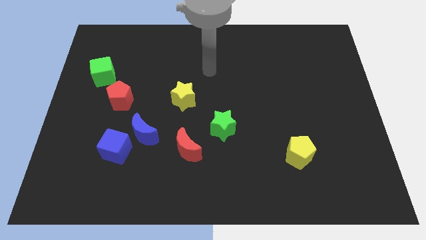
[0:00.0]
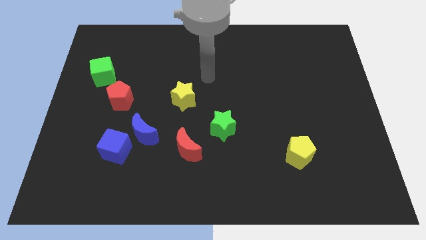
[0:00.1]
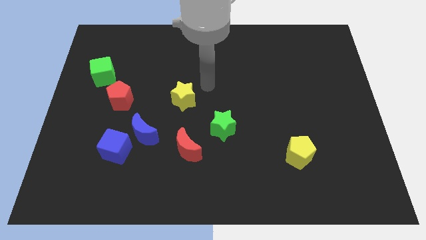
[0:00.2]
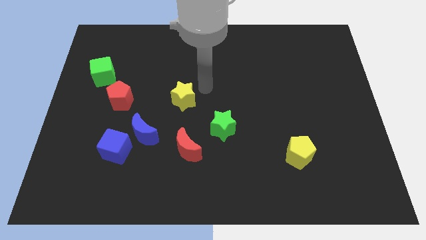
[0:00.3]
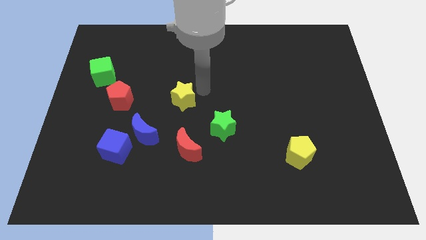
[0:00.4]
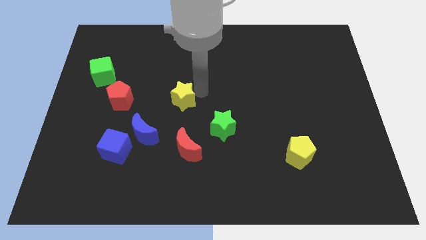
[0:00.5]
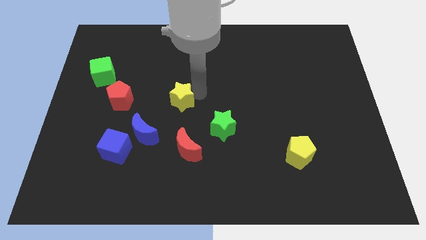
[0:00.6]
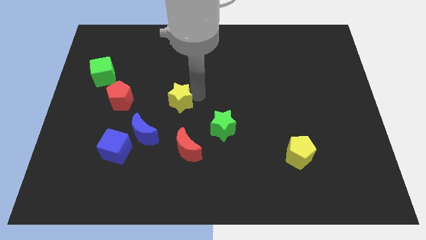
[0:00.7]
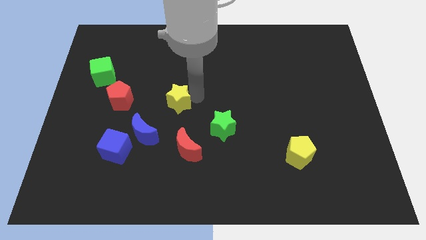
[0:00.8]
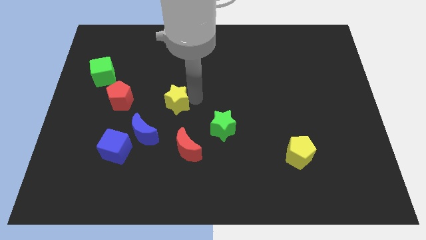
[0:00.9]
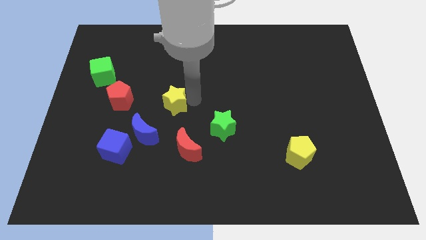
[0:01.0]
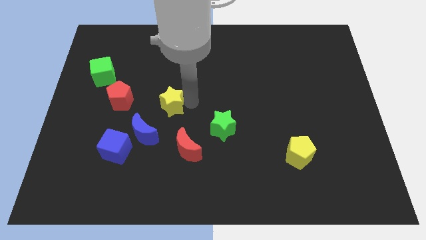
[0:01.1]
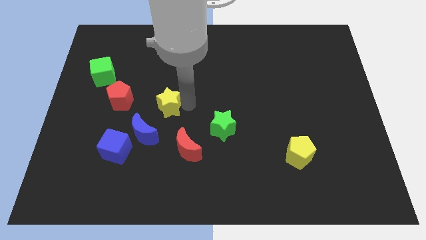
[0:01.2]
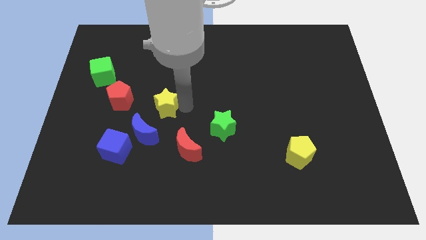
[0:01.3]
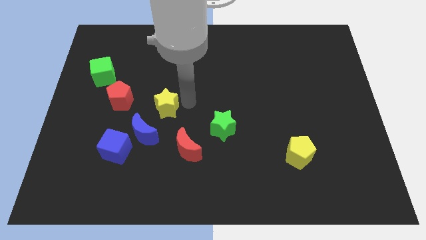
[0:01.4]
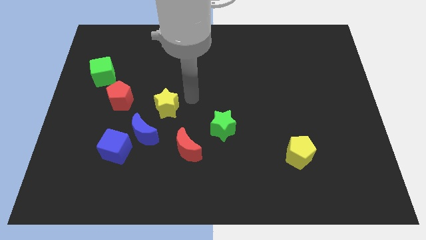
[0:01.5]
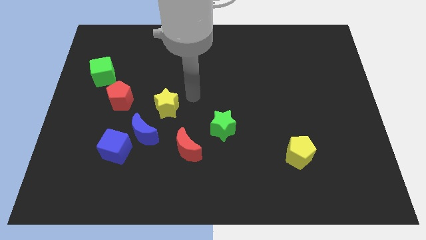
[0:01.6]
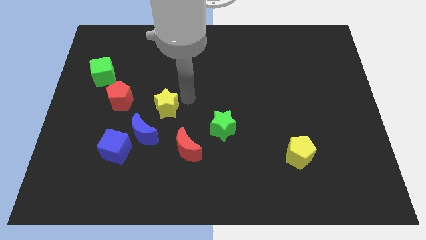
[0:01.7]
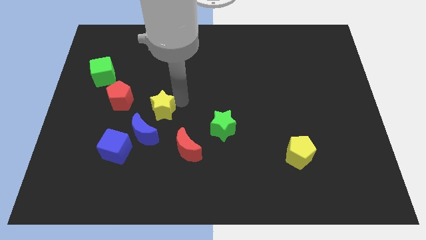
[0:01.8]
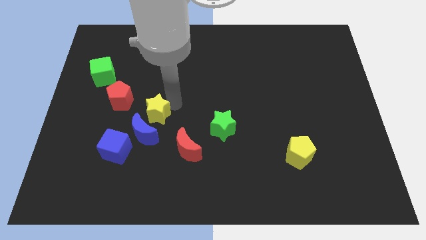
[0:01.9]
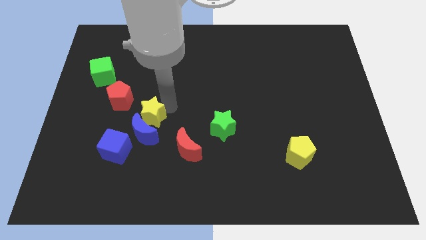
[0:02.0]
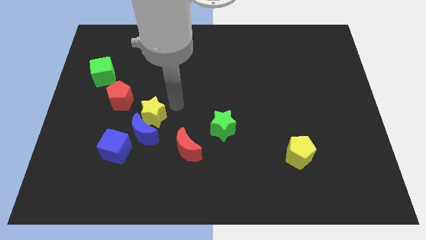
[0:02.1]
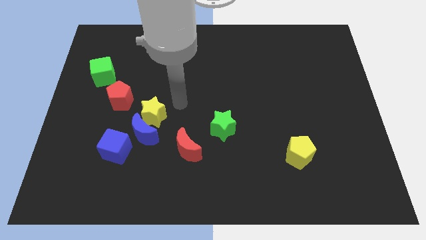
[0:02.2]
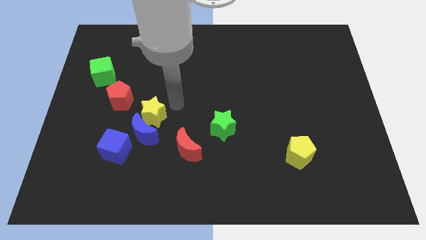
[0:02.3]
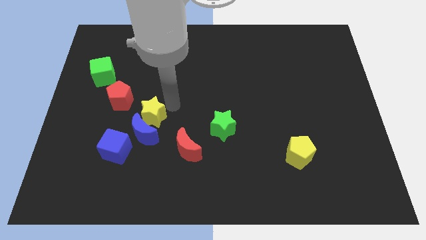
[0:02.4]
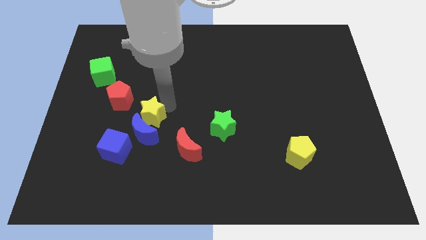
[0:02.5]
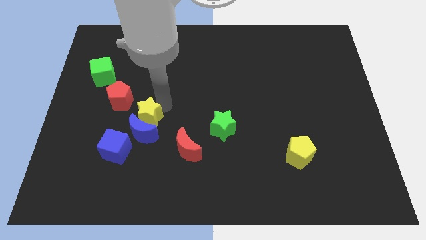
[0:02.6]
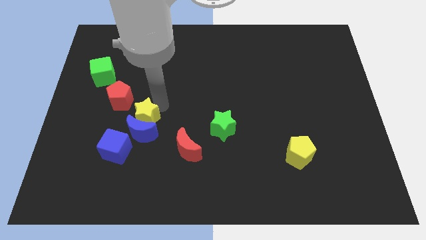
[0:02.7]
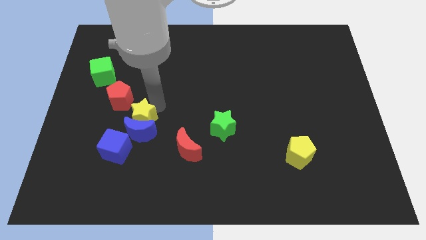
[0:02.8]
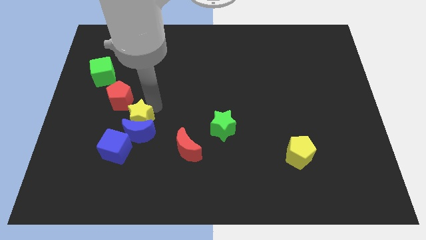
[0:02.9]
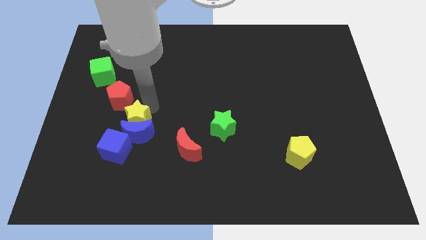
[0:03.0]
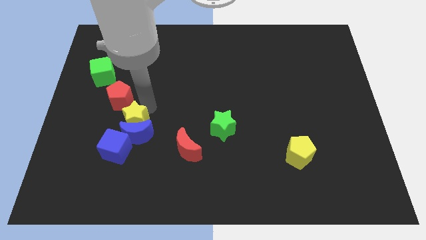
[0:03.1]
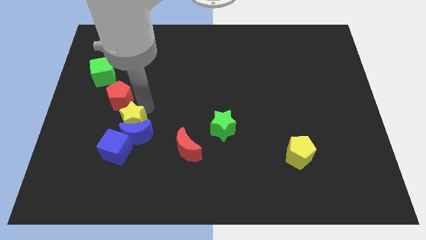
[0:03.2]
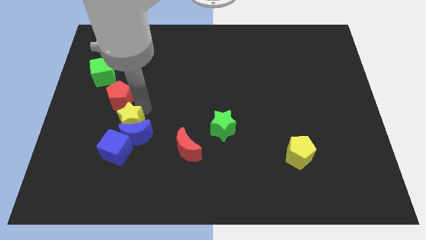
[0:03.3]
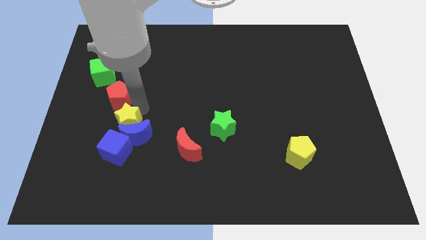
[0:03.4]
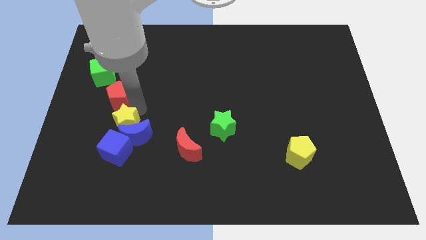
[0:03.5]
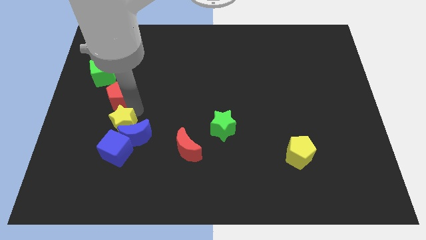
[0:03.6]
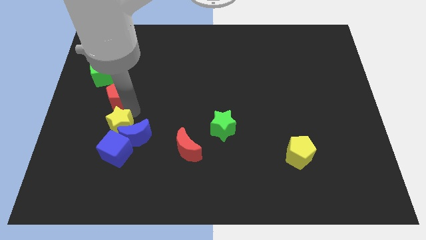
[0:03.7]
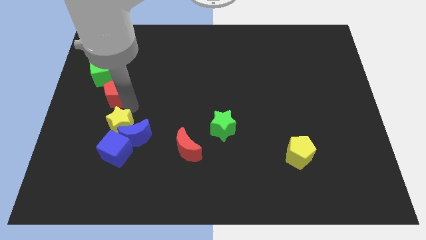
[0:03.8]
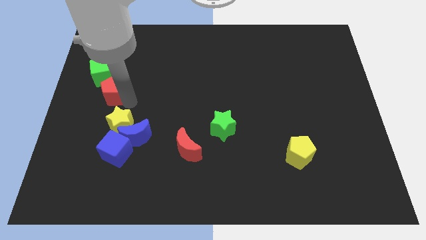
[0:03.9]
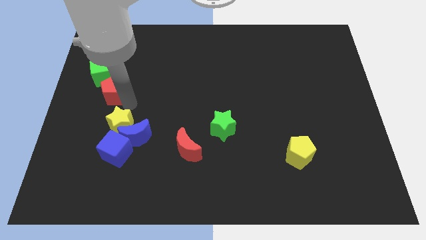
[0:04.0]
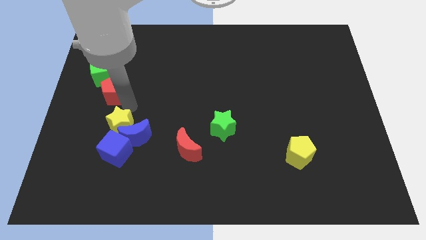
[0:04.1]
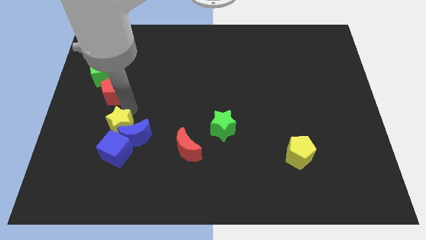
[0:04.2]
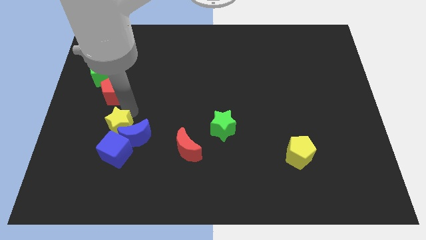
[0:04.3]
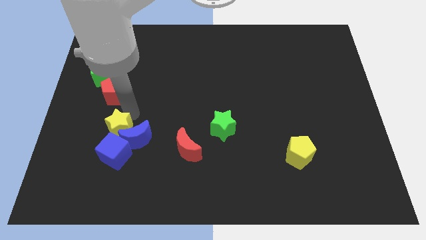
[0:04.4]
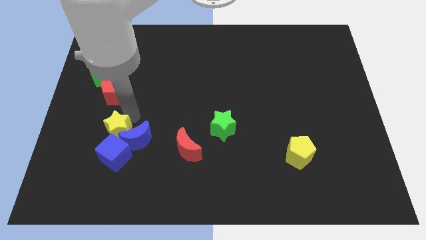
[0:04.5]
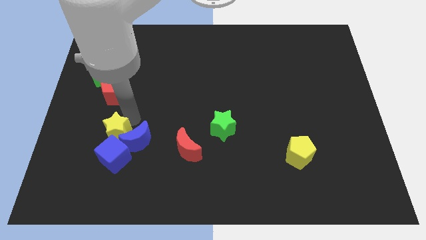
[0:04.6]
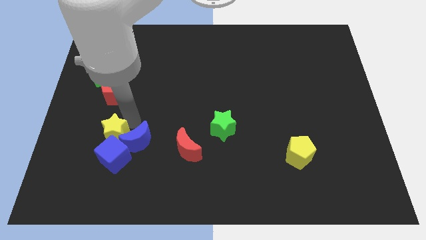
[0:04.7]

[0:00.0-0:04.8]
move the yellow star next to the blue cube

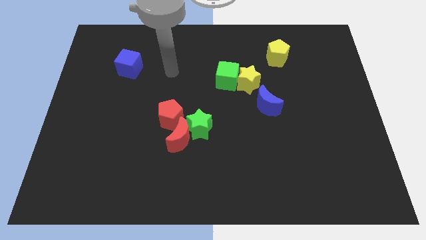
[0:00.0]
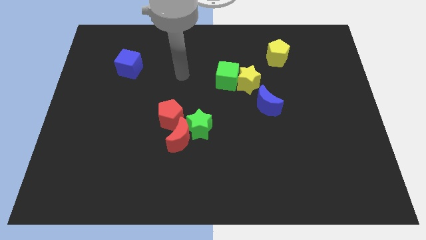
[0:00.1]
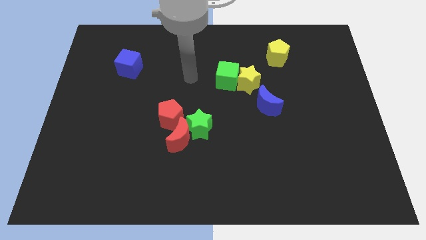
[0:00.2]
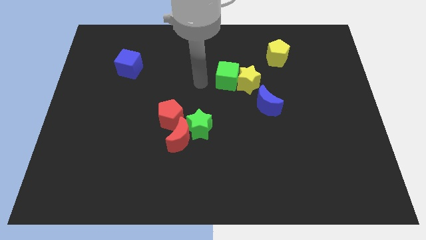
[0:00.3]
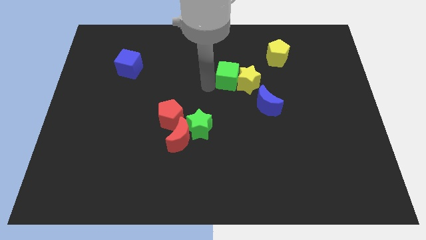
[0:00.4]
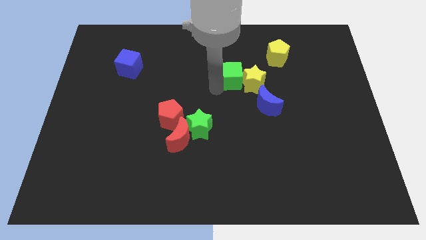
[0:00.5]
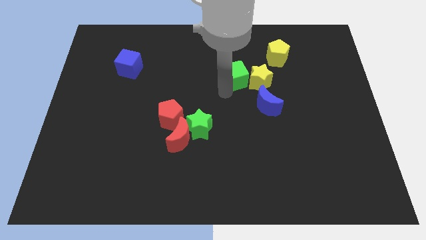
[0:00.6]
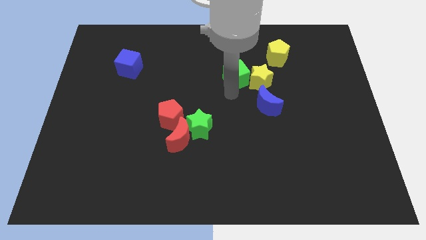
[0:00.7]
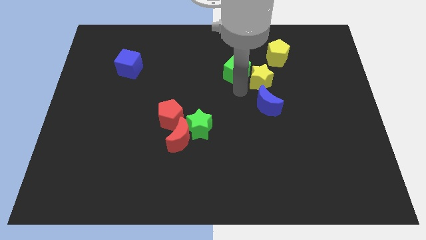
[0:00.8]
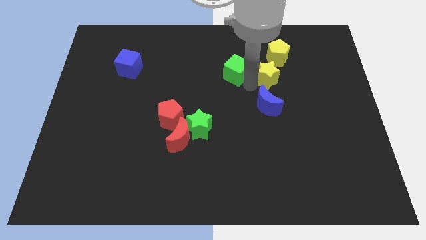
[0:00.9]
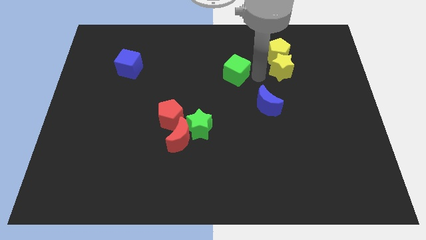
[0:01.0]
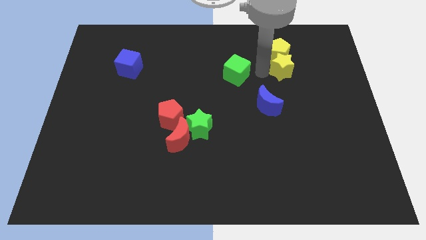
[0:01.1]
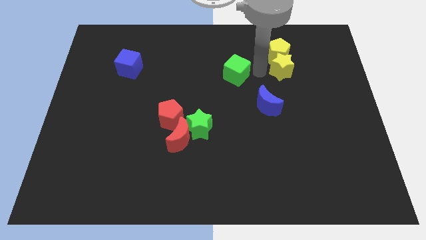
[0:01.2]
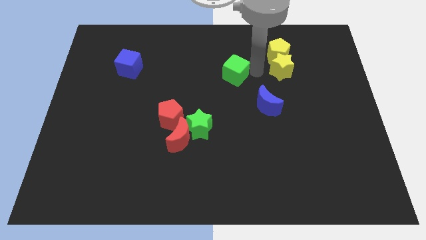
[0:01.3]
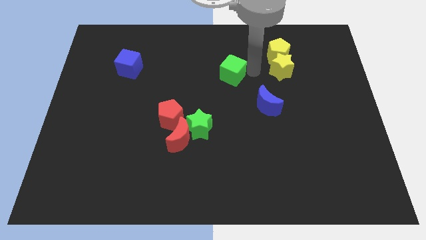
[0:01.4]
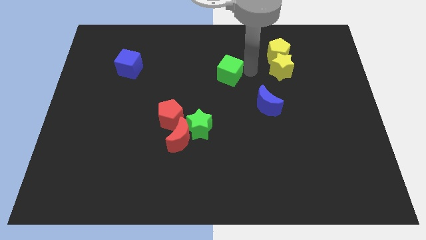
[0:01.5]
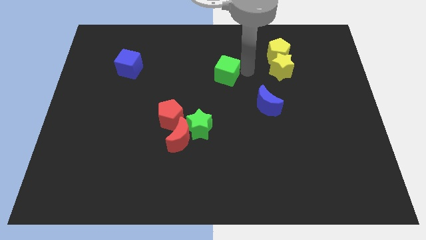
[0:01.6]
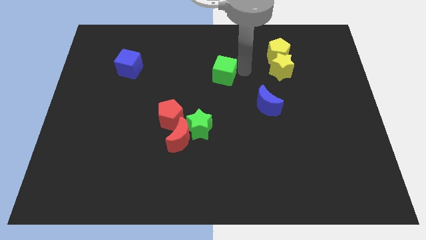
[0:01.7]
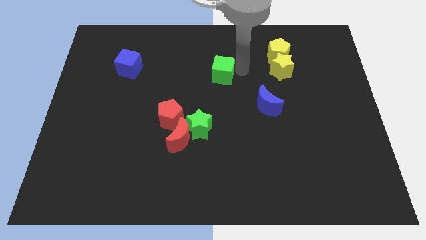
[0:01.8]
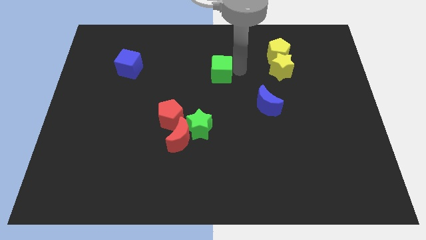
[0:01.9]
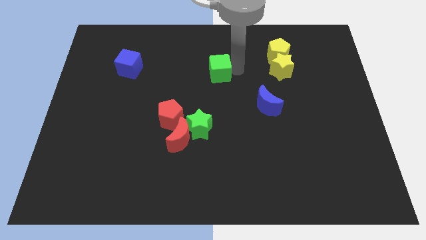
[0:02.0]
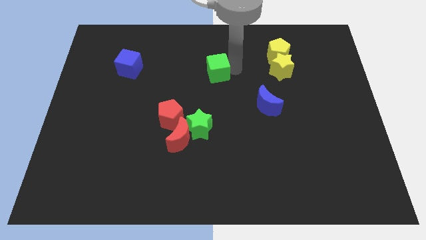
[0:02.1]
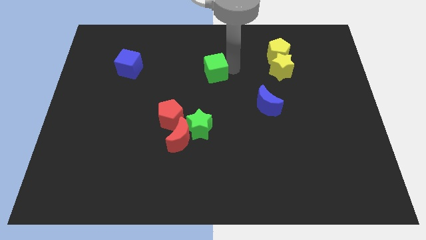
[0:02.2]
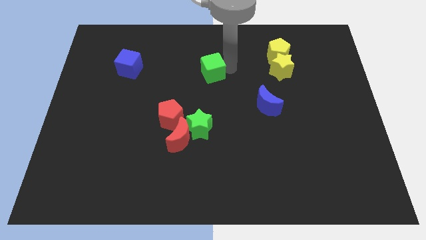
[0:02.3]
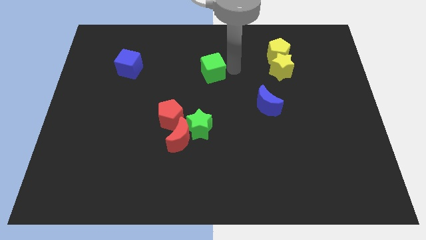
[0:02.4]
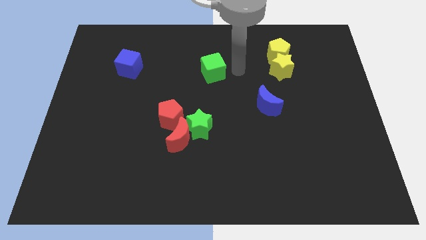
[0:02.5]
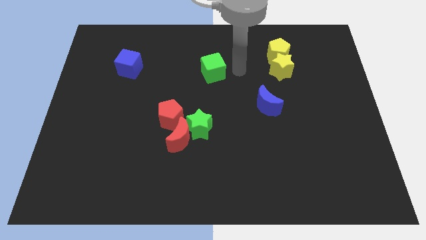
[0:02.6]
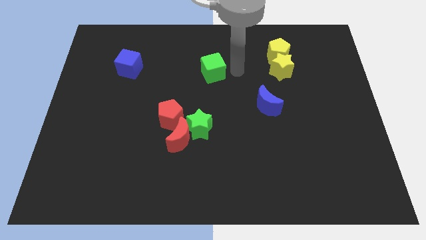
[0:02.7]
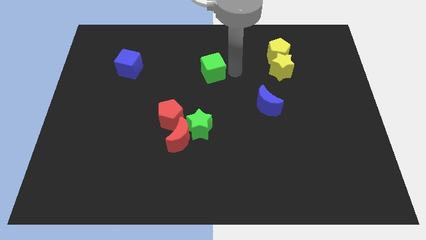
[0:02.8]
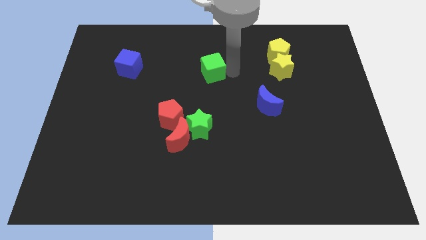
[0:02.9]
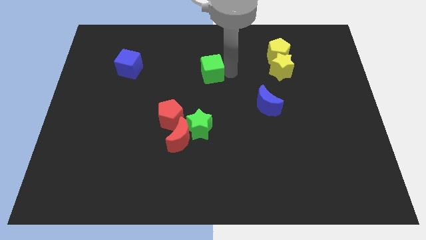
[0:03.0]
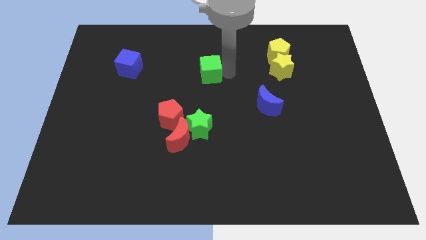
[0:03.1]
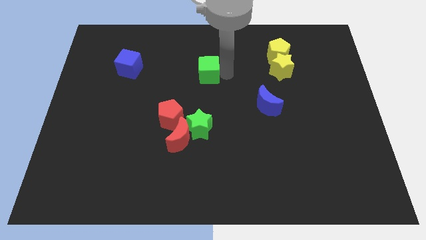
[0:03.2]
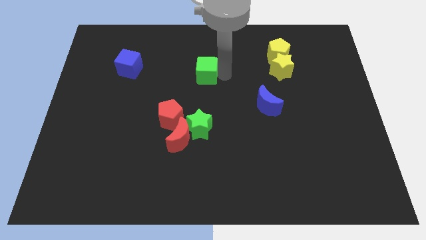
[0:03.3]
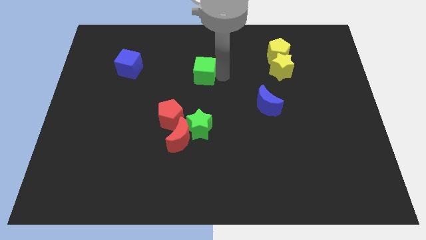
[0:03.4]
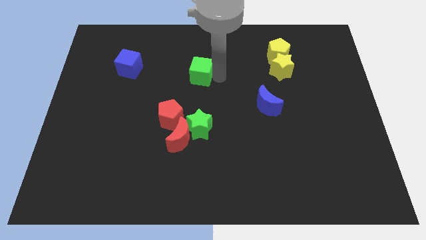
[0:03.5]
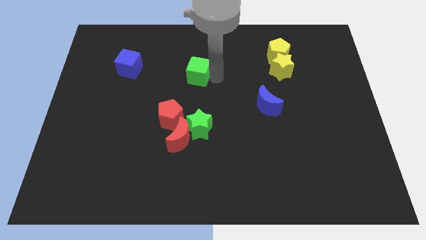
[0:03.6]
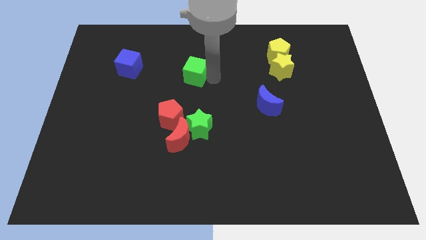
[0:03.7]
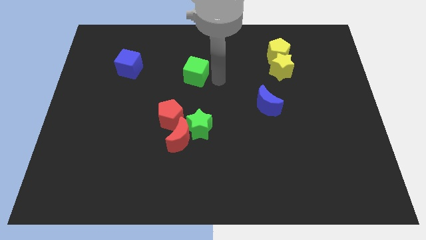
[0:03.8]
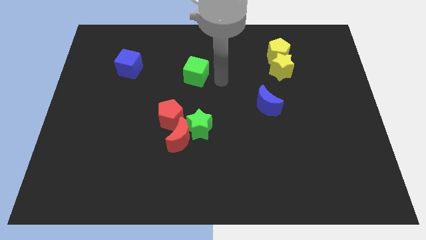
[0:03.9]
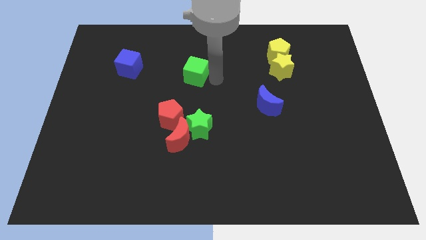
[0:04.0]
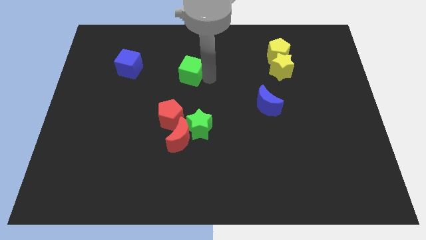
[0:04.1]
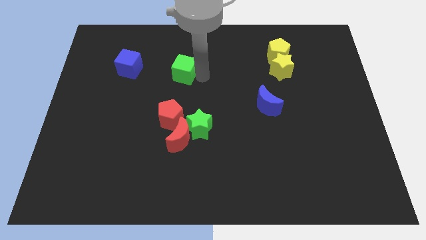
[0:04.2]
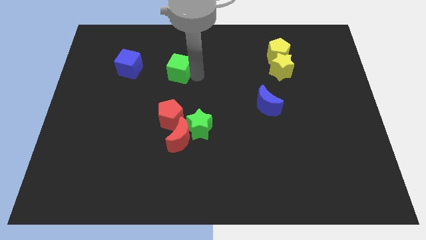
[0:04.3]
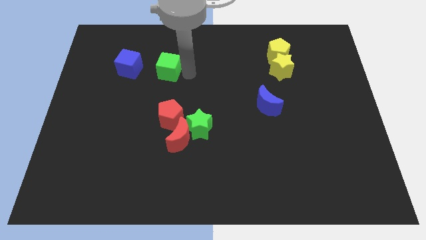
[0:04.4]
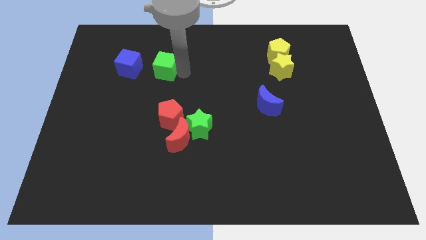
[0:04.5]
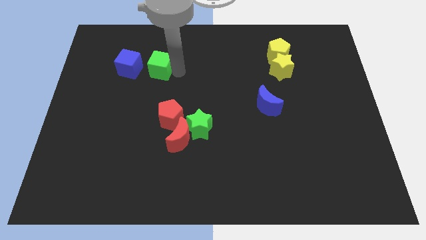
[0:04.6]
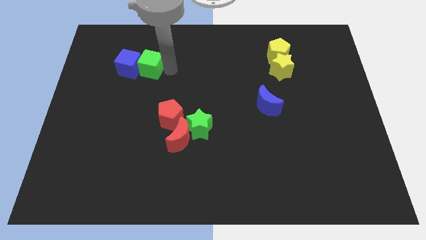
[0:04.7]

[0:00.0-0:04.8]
put the green cube next to the blue cube
